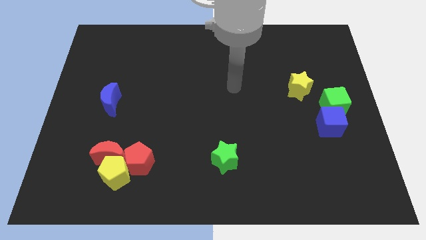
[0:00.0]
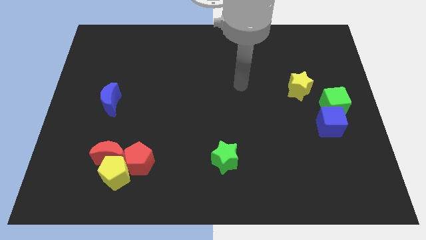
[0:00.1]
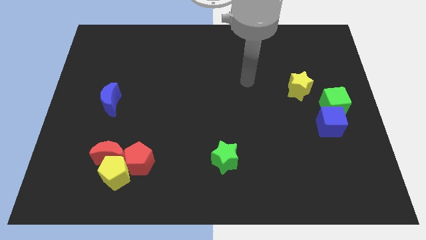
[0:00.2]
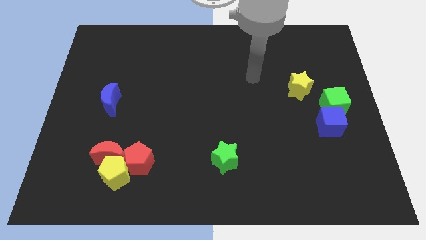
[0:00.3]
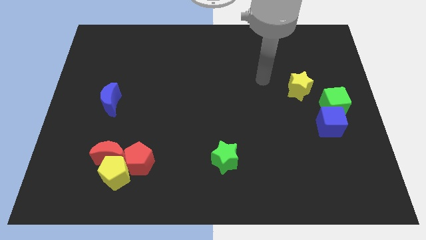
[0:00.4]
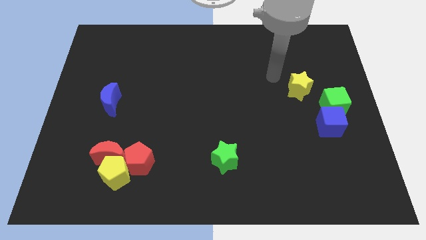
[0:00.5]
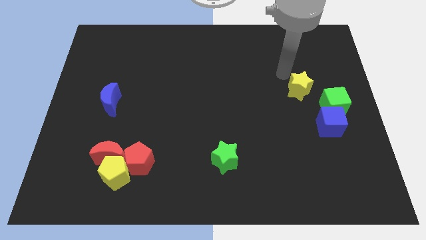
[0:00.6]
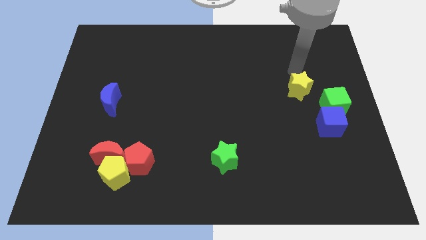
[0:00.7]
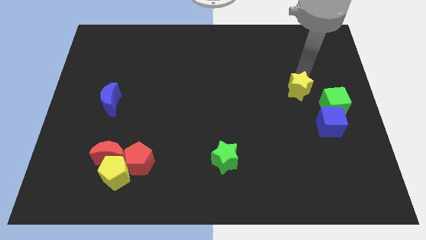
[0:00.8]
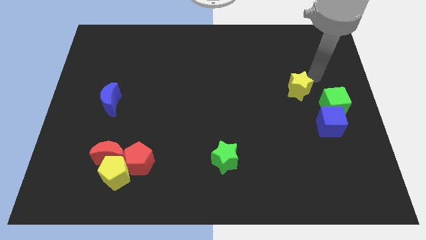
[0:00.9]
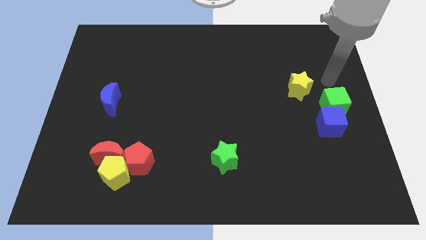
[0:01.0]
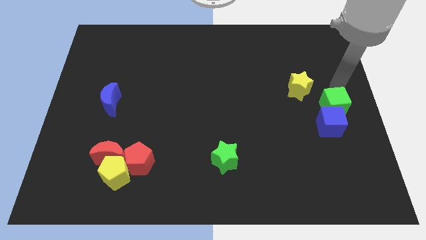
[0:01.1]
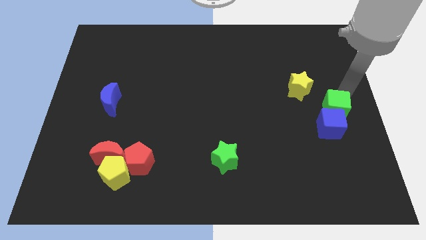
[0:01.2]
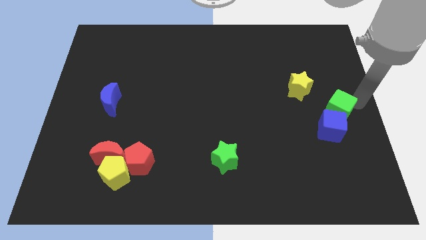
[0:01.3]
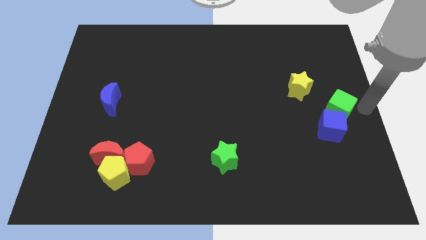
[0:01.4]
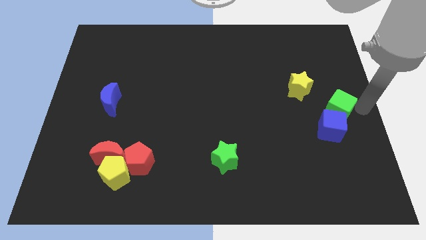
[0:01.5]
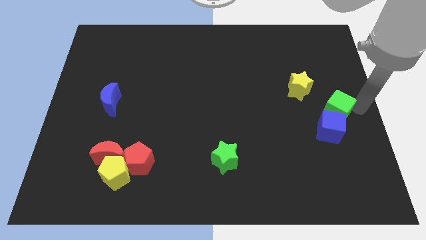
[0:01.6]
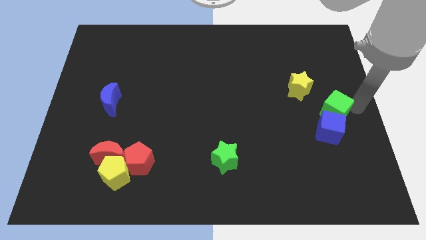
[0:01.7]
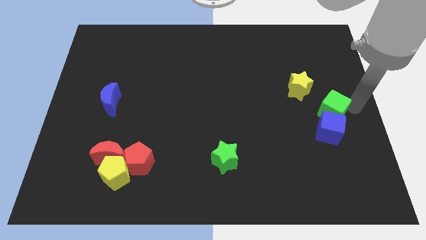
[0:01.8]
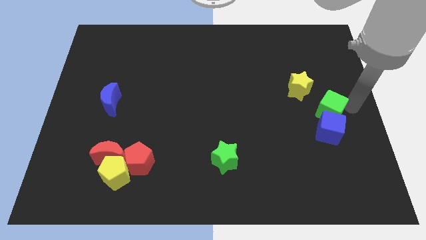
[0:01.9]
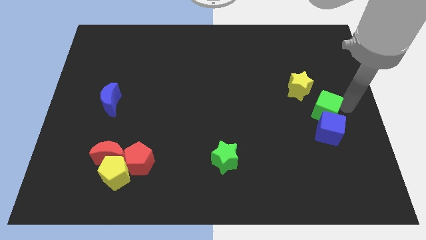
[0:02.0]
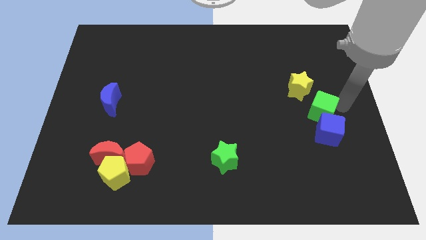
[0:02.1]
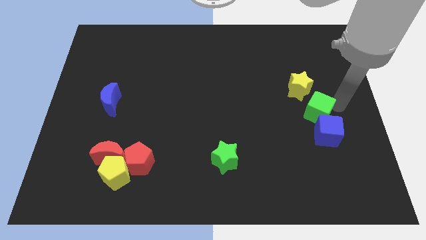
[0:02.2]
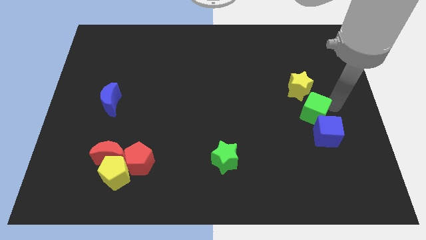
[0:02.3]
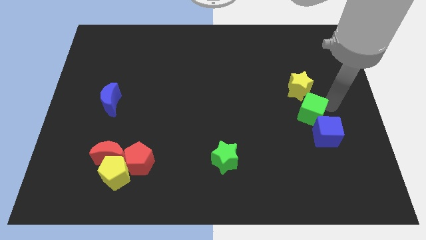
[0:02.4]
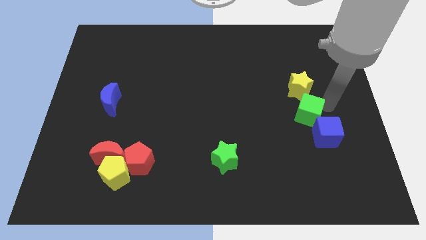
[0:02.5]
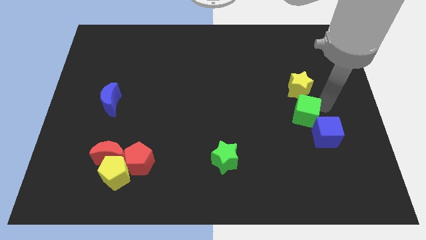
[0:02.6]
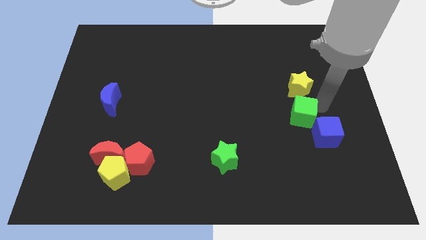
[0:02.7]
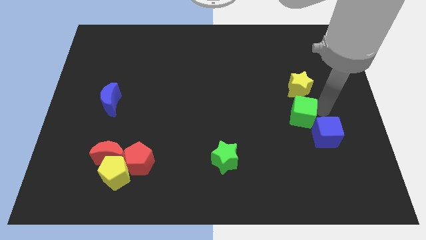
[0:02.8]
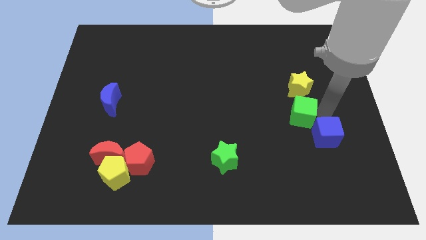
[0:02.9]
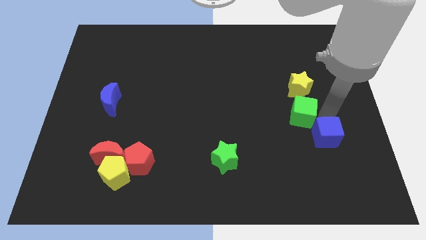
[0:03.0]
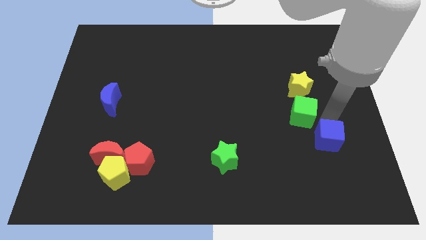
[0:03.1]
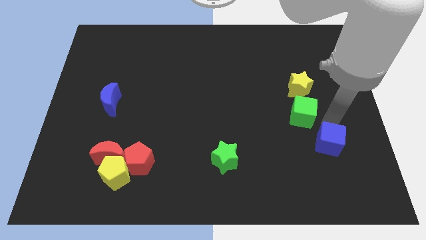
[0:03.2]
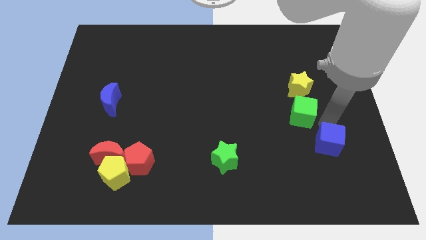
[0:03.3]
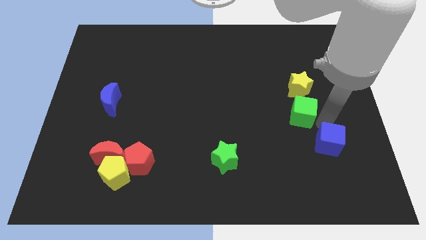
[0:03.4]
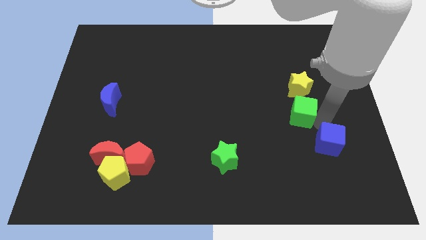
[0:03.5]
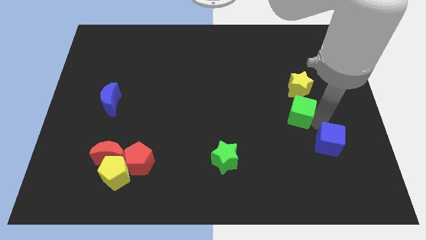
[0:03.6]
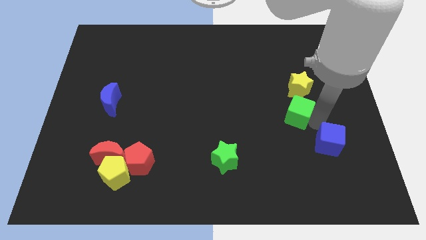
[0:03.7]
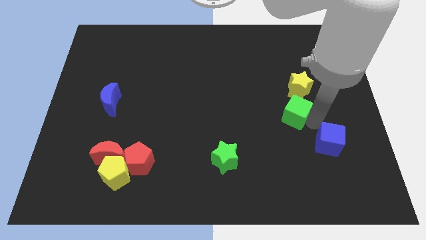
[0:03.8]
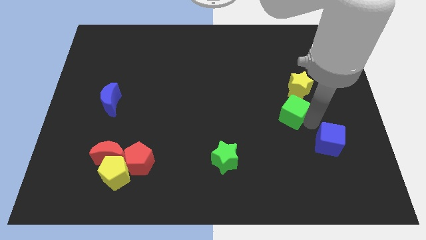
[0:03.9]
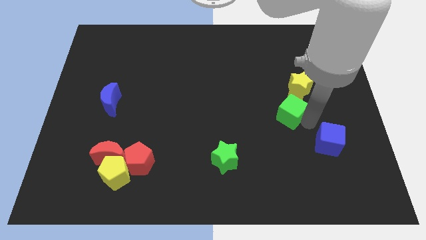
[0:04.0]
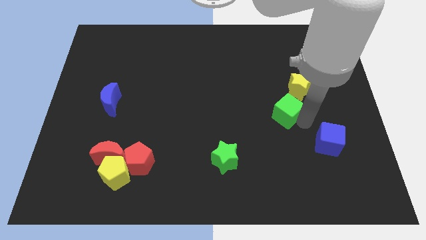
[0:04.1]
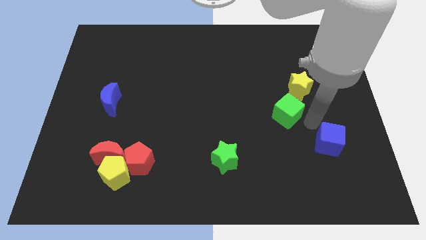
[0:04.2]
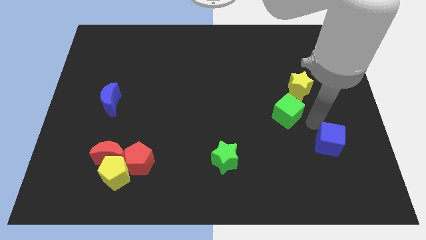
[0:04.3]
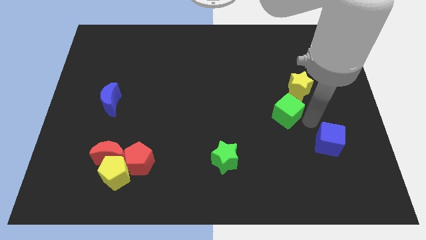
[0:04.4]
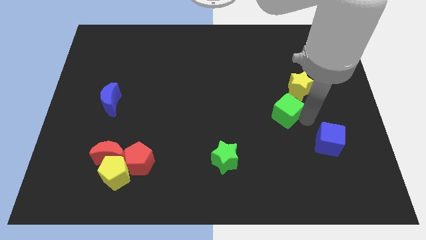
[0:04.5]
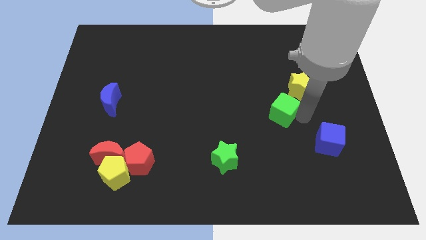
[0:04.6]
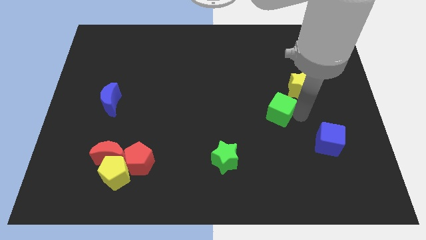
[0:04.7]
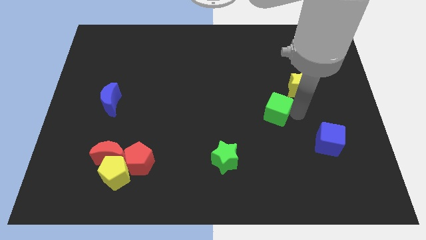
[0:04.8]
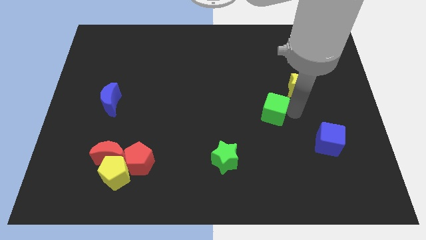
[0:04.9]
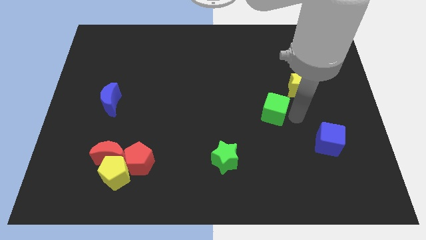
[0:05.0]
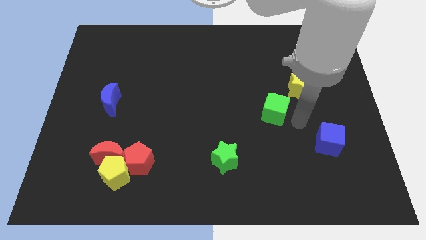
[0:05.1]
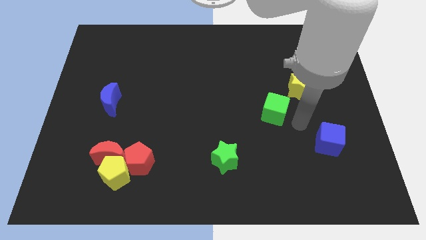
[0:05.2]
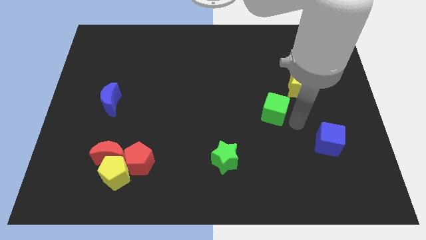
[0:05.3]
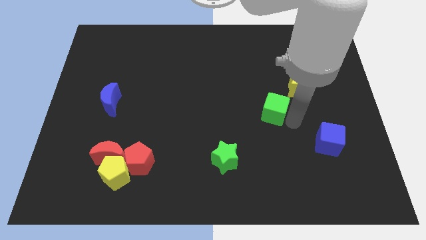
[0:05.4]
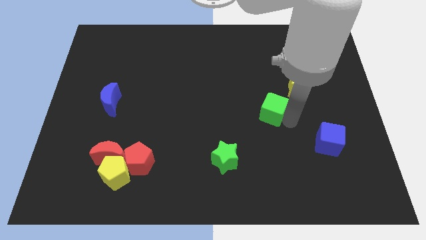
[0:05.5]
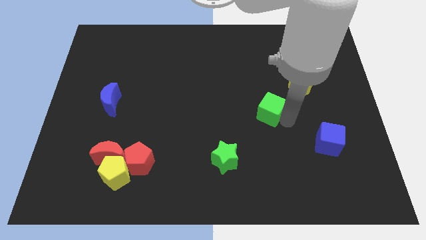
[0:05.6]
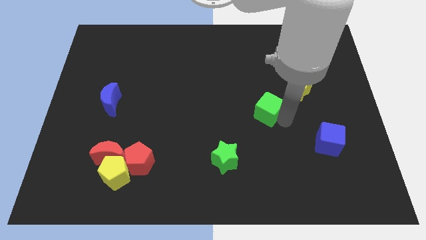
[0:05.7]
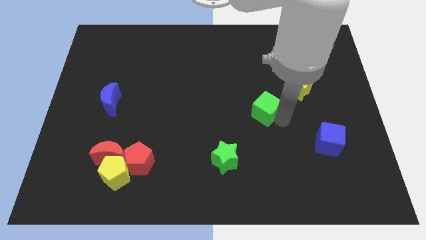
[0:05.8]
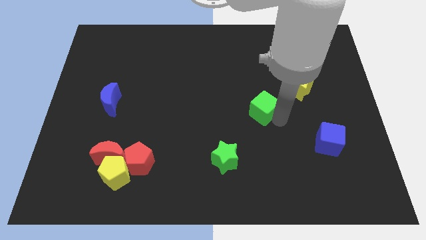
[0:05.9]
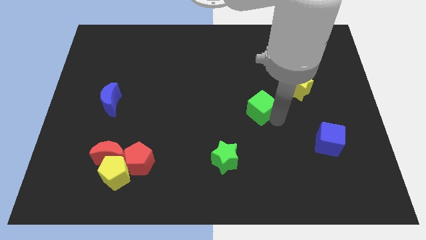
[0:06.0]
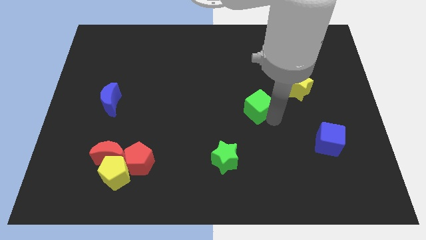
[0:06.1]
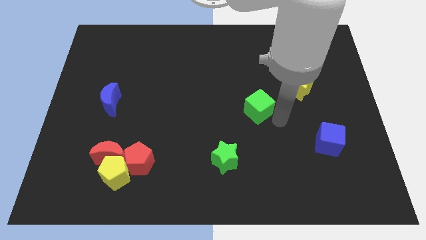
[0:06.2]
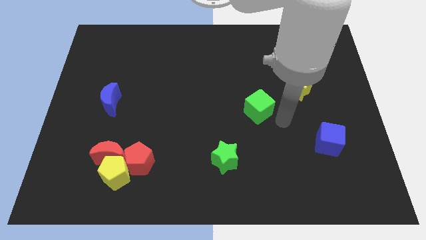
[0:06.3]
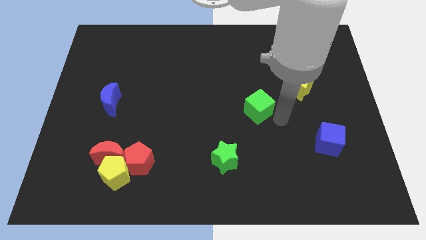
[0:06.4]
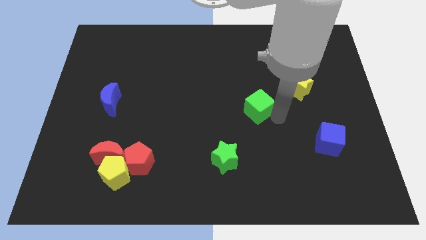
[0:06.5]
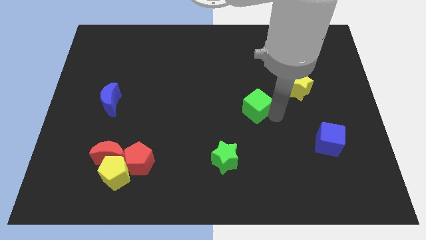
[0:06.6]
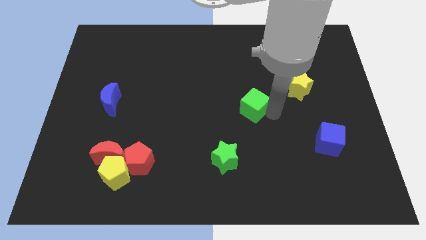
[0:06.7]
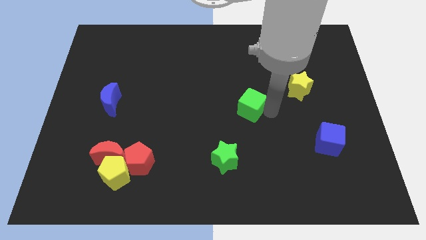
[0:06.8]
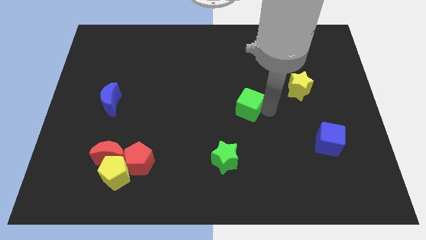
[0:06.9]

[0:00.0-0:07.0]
push the green cube left

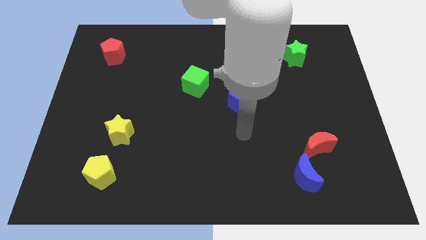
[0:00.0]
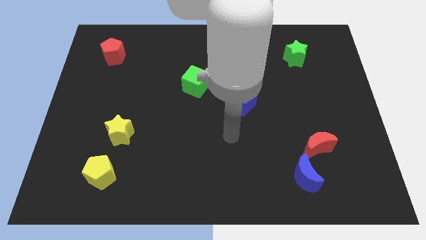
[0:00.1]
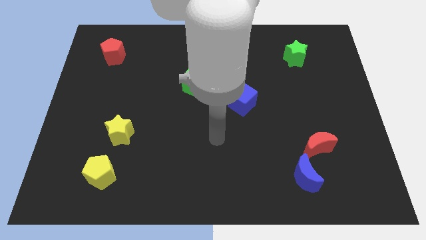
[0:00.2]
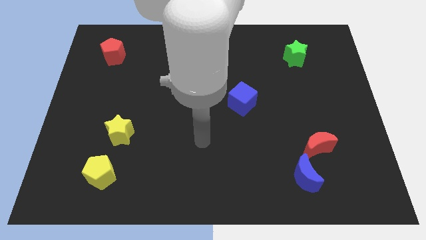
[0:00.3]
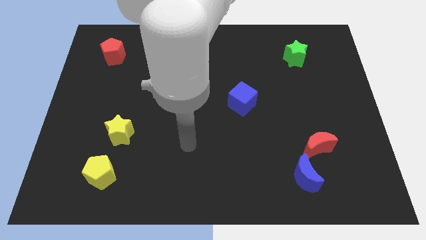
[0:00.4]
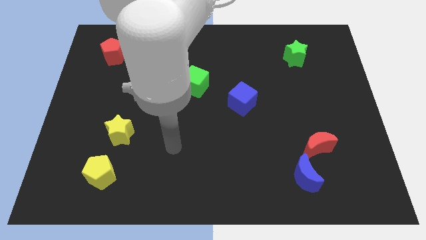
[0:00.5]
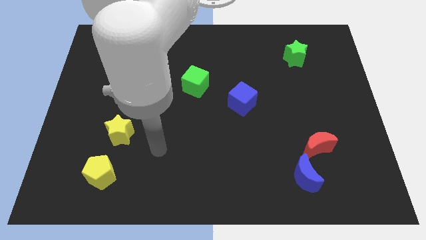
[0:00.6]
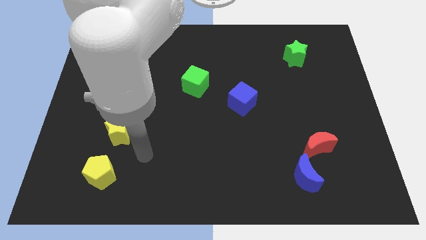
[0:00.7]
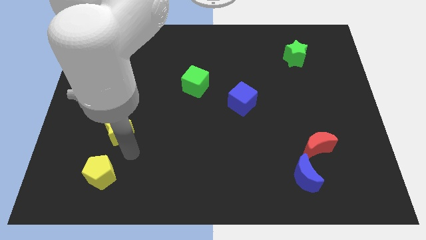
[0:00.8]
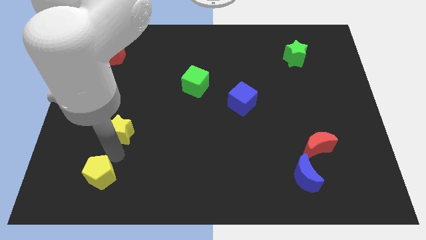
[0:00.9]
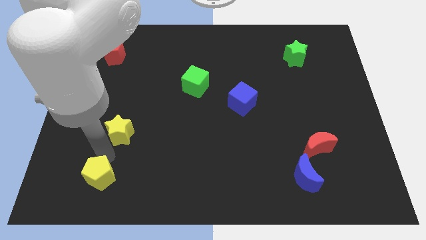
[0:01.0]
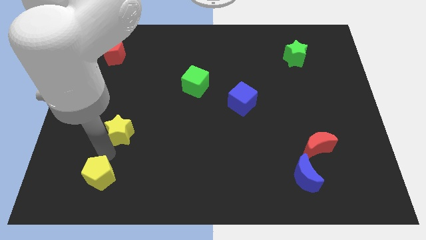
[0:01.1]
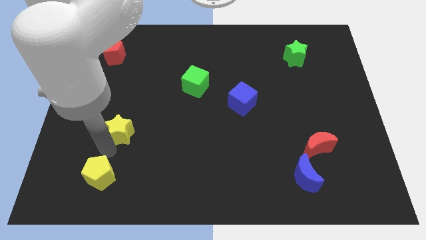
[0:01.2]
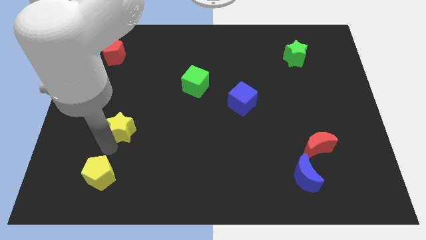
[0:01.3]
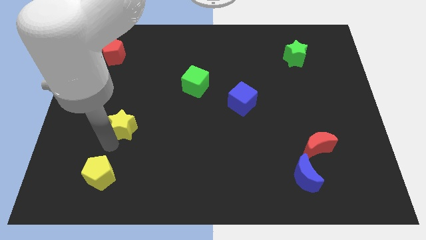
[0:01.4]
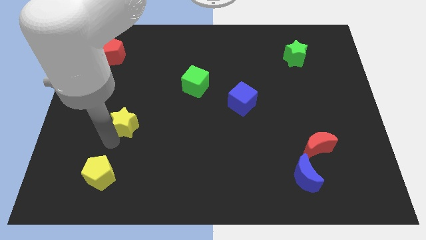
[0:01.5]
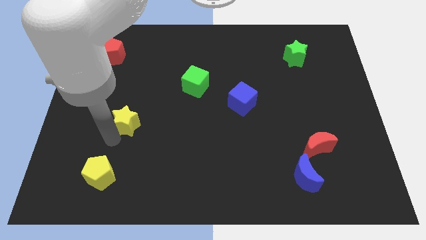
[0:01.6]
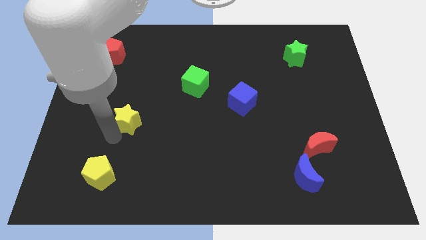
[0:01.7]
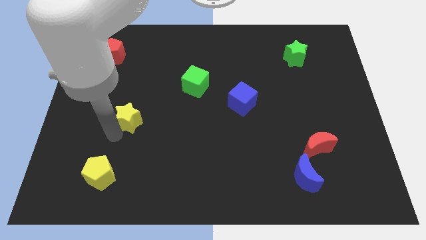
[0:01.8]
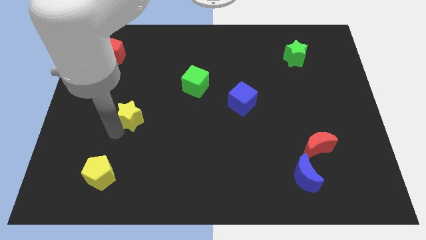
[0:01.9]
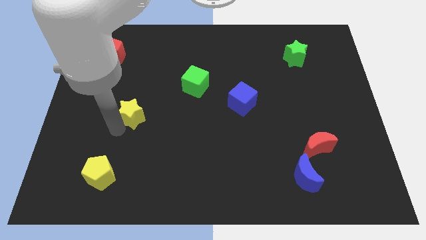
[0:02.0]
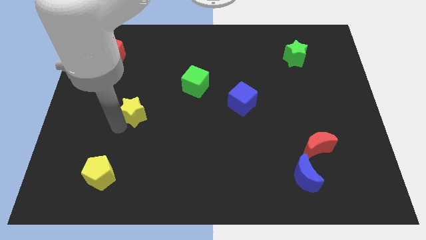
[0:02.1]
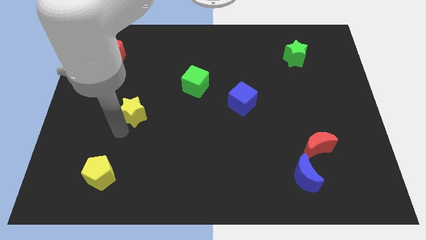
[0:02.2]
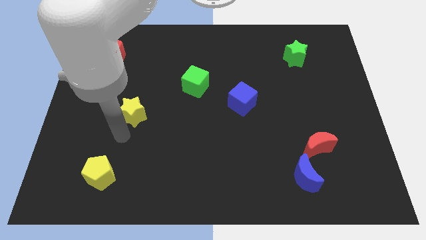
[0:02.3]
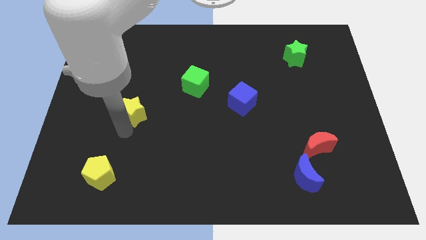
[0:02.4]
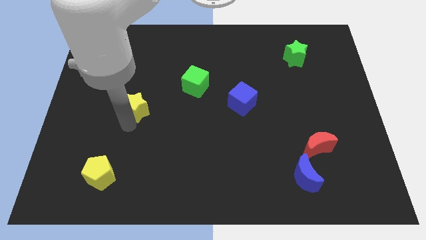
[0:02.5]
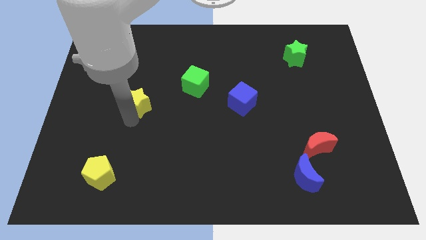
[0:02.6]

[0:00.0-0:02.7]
move the yellow star up a bit
